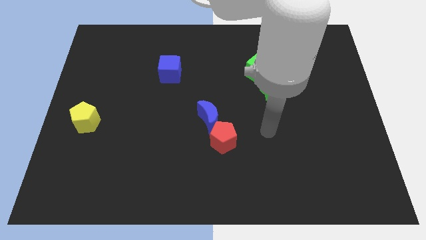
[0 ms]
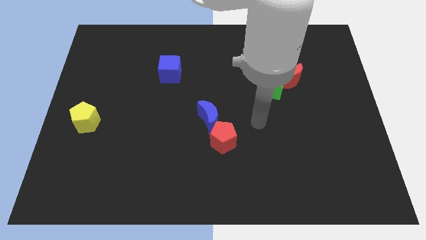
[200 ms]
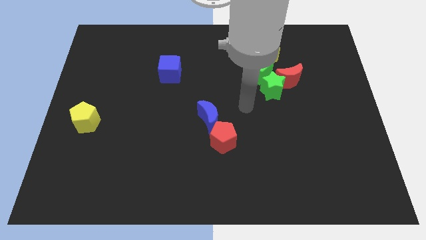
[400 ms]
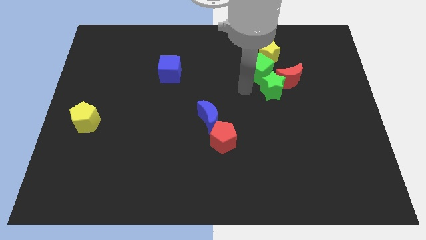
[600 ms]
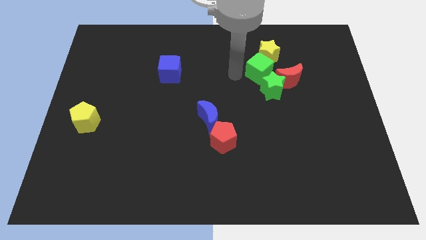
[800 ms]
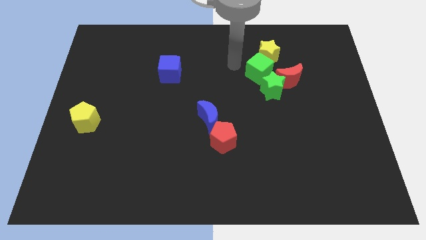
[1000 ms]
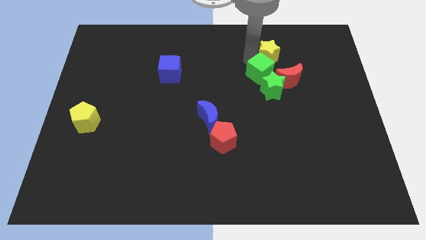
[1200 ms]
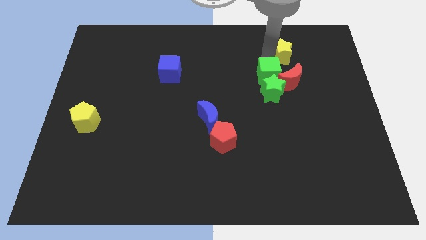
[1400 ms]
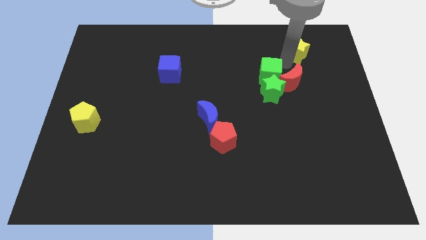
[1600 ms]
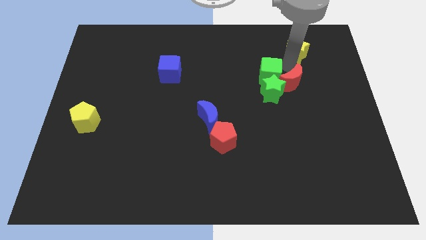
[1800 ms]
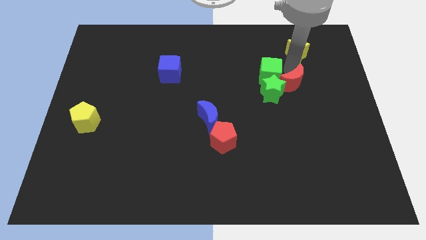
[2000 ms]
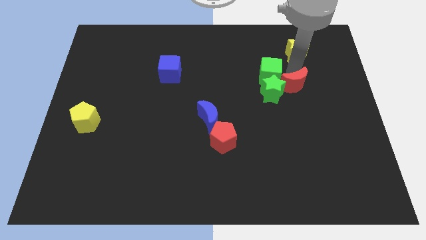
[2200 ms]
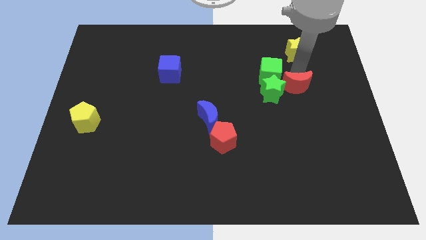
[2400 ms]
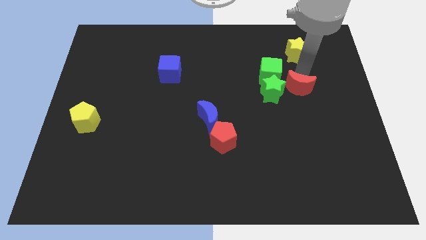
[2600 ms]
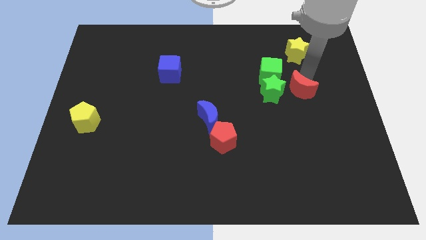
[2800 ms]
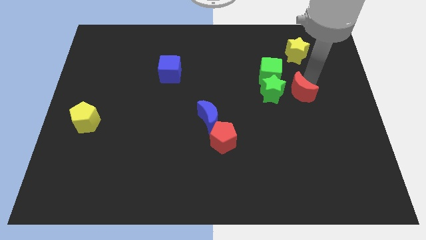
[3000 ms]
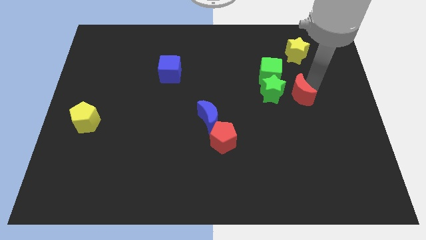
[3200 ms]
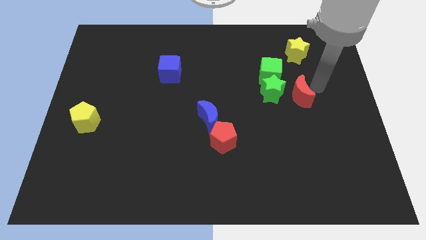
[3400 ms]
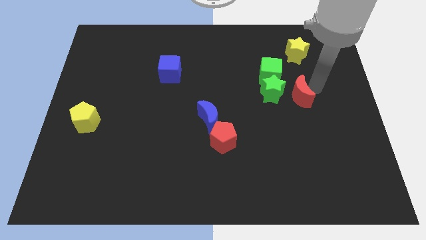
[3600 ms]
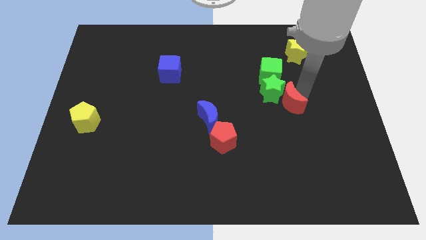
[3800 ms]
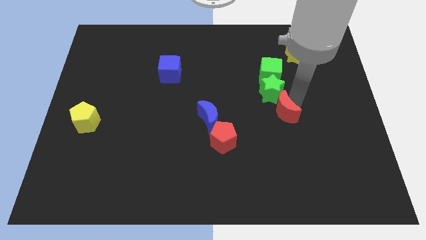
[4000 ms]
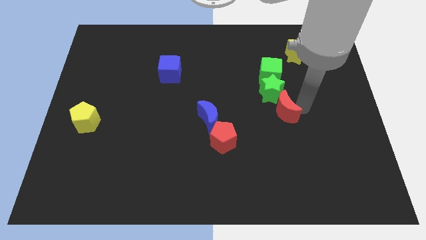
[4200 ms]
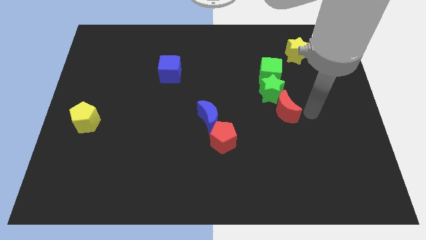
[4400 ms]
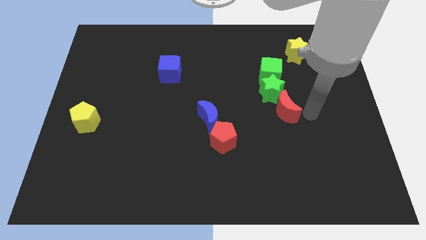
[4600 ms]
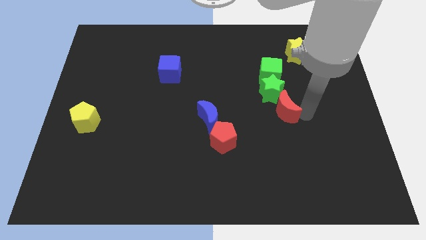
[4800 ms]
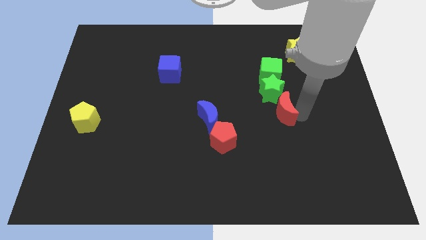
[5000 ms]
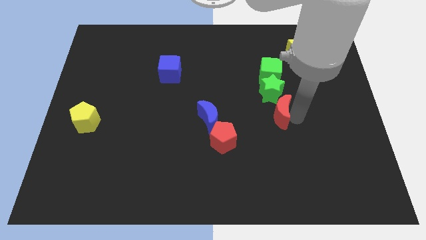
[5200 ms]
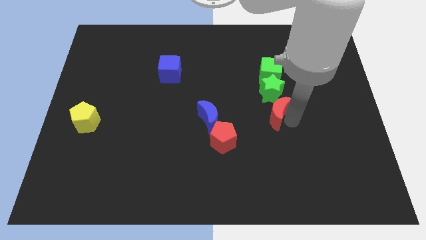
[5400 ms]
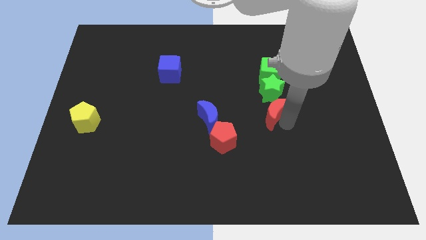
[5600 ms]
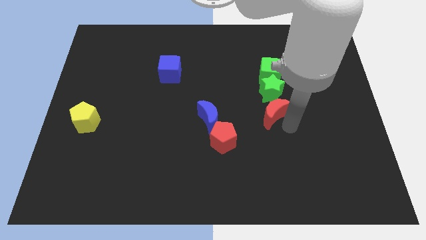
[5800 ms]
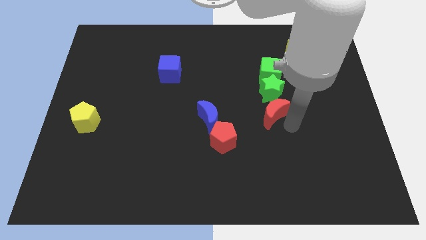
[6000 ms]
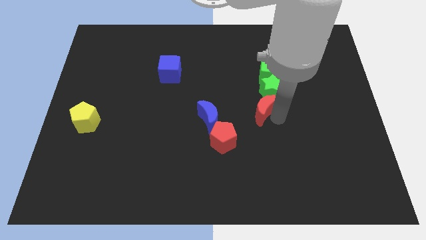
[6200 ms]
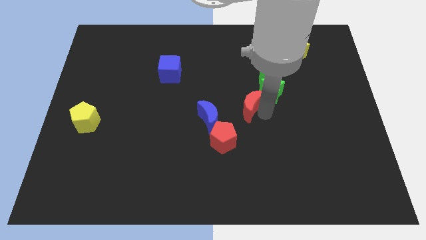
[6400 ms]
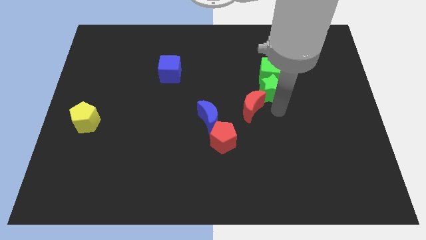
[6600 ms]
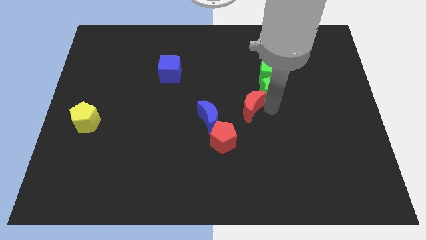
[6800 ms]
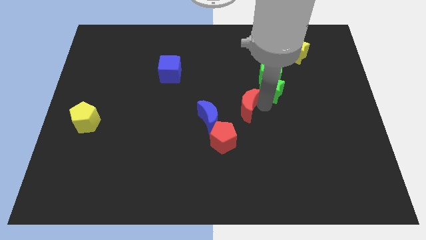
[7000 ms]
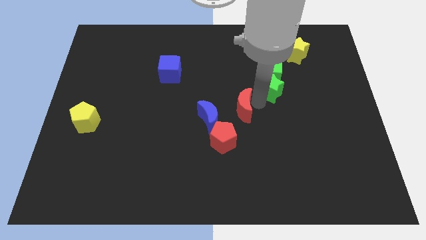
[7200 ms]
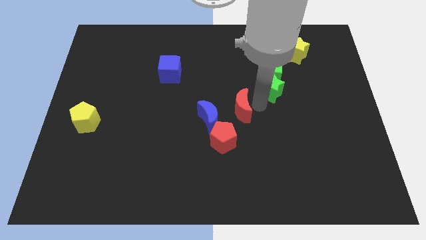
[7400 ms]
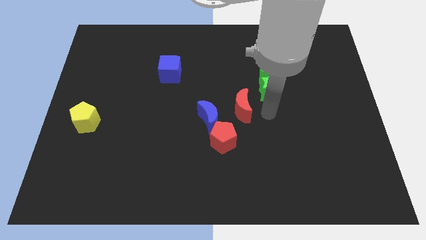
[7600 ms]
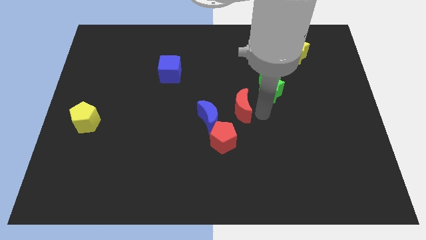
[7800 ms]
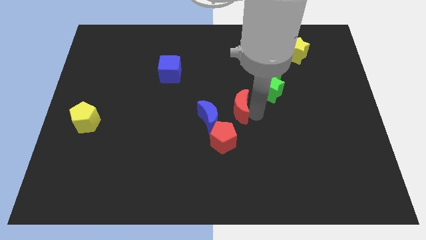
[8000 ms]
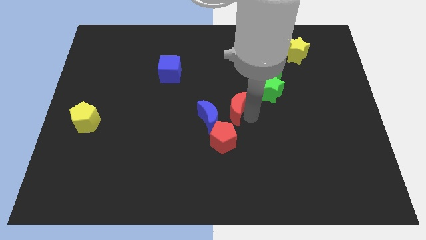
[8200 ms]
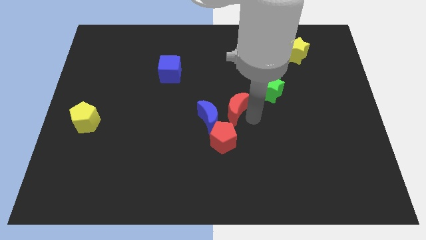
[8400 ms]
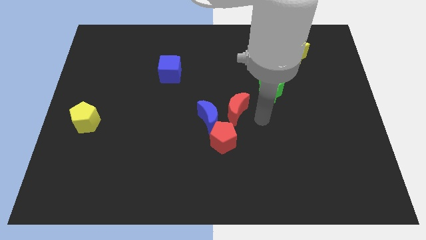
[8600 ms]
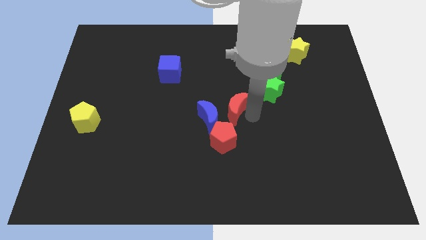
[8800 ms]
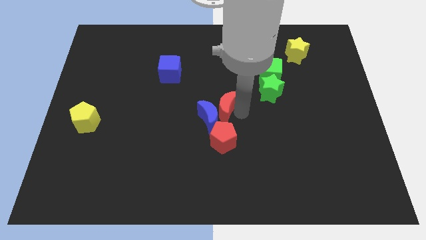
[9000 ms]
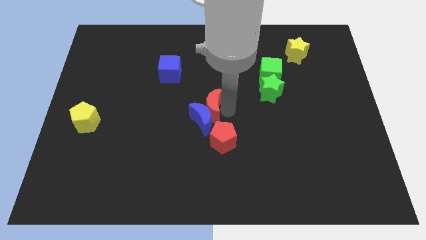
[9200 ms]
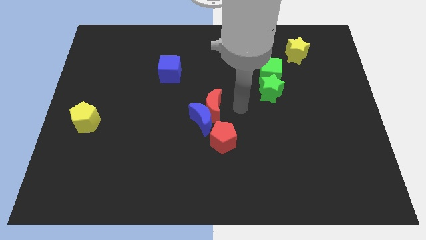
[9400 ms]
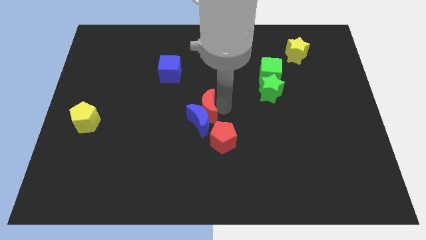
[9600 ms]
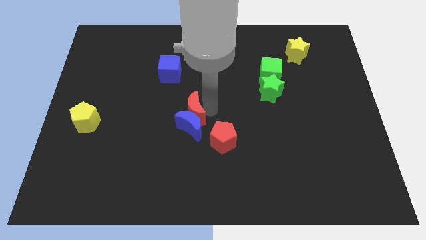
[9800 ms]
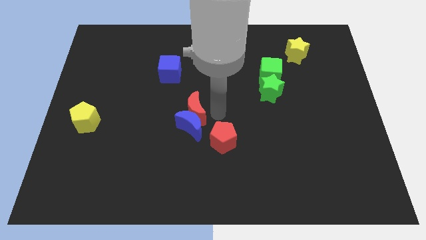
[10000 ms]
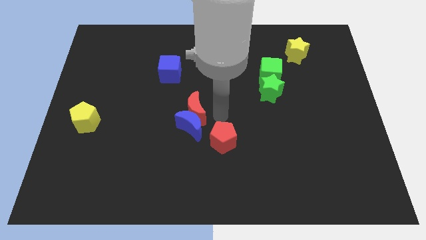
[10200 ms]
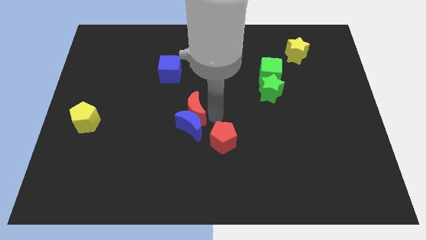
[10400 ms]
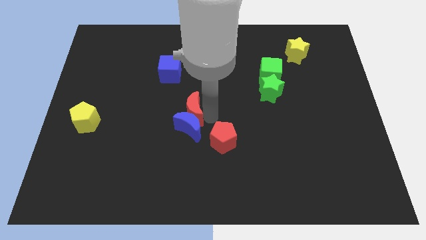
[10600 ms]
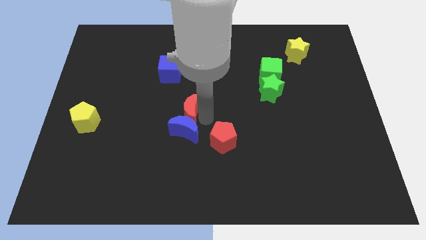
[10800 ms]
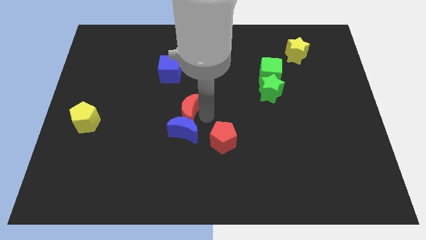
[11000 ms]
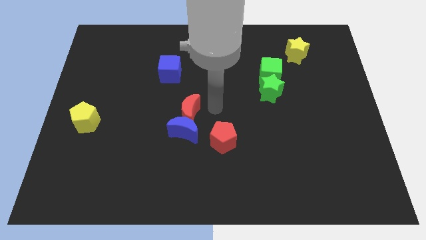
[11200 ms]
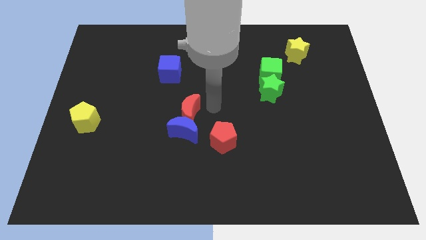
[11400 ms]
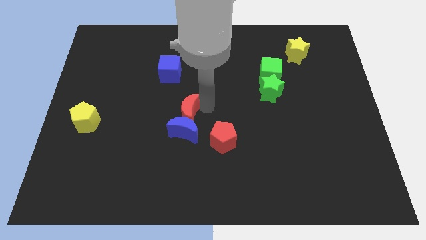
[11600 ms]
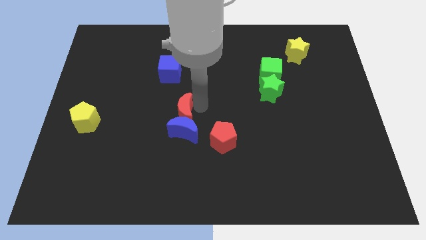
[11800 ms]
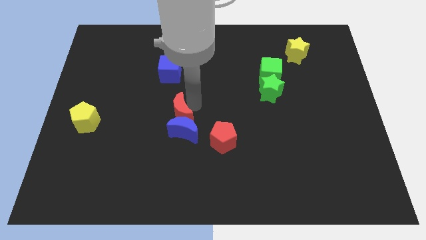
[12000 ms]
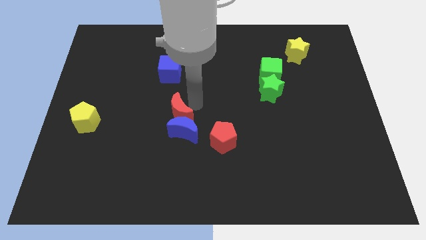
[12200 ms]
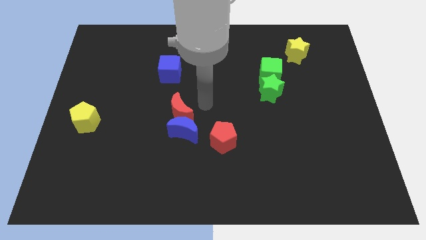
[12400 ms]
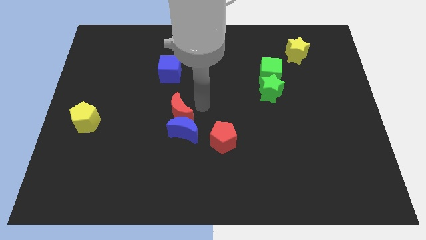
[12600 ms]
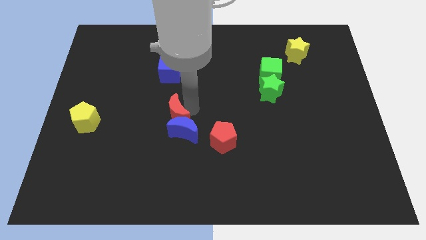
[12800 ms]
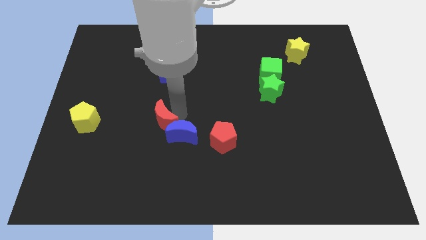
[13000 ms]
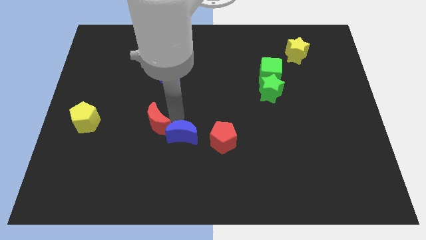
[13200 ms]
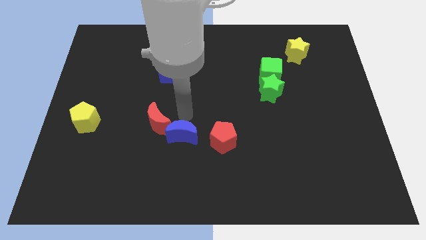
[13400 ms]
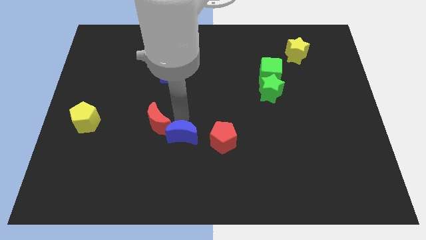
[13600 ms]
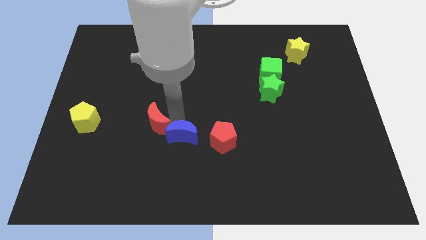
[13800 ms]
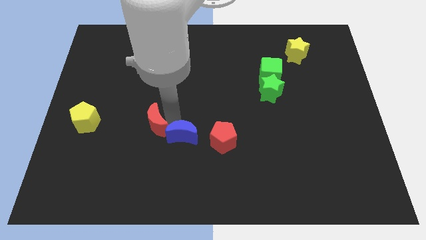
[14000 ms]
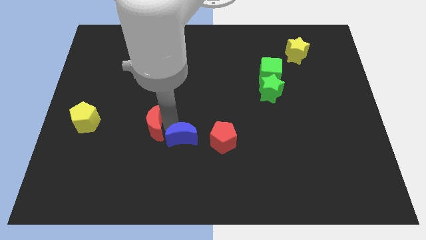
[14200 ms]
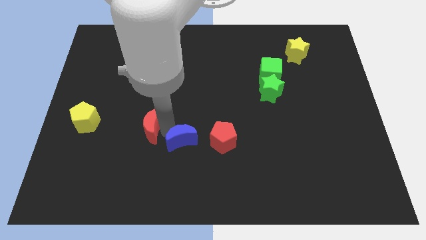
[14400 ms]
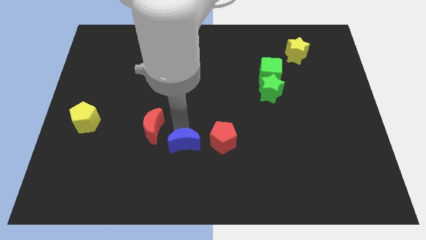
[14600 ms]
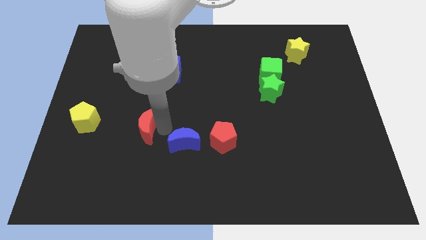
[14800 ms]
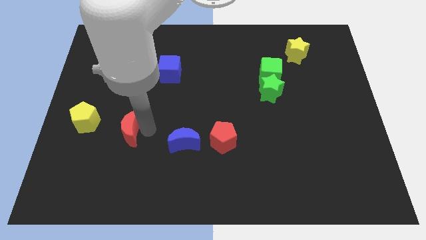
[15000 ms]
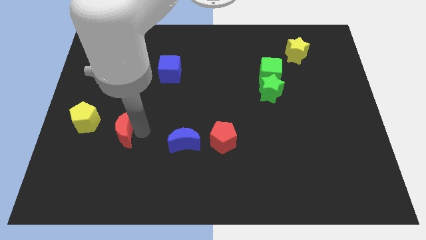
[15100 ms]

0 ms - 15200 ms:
push the red moon to the bottom right of the yellow pentagon
